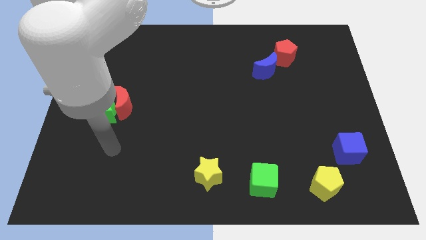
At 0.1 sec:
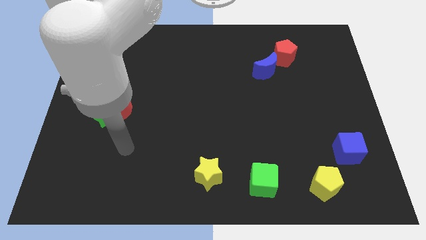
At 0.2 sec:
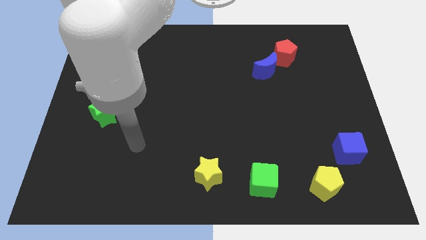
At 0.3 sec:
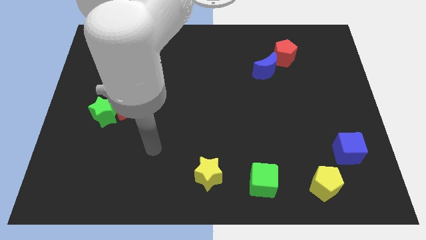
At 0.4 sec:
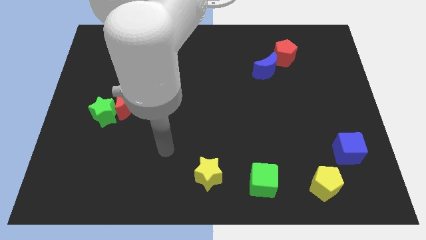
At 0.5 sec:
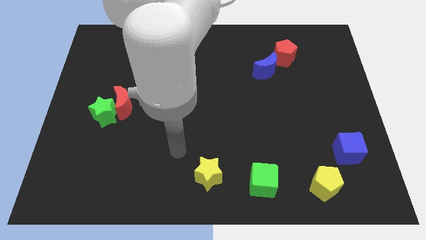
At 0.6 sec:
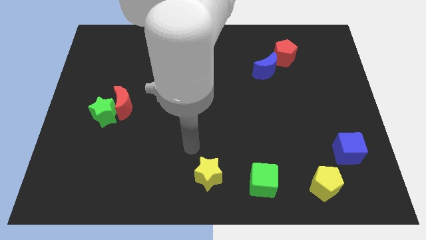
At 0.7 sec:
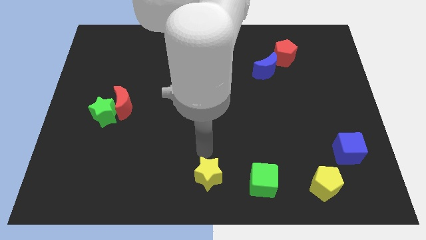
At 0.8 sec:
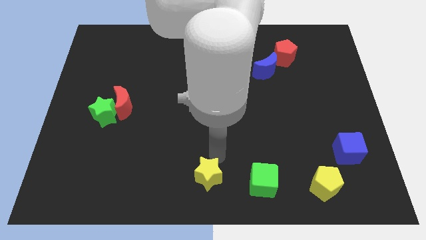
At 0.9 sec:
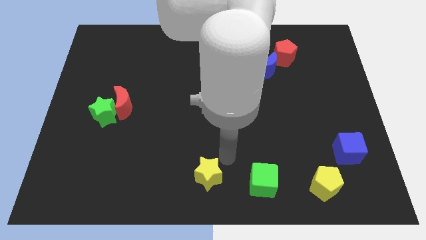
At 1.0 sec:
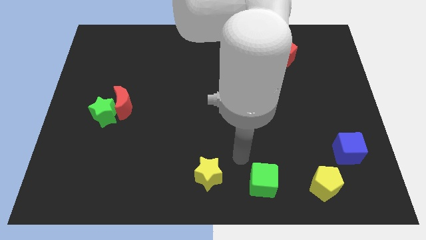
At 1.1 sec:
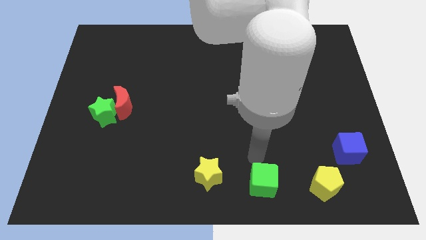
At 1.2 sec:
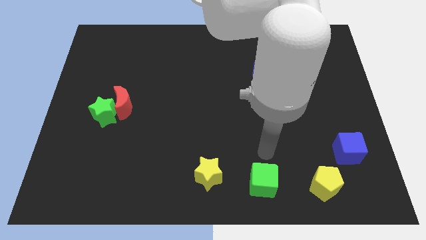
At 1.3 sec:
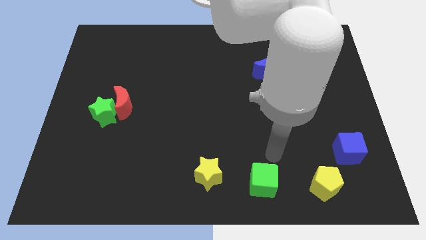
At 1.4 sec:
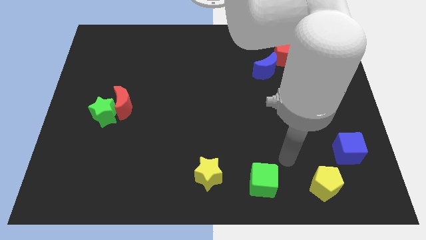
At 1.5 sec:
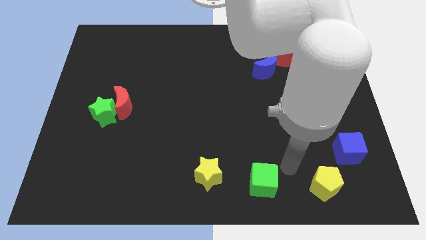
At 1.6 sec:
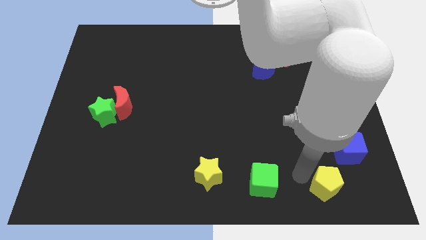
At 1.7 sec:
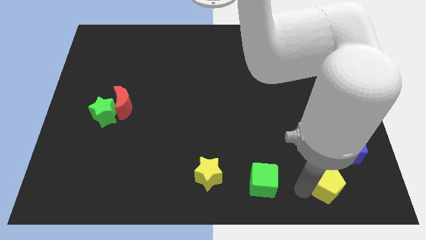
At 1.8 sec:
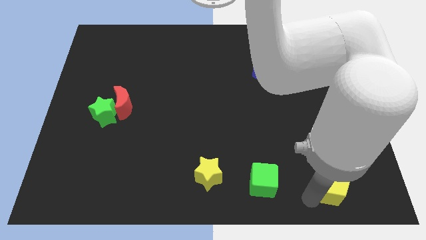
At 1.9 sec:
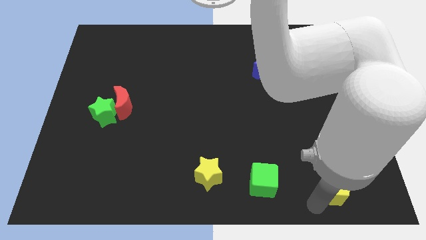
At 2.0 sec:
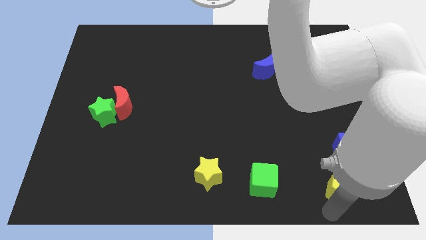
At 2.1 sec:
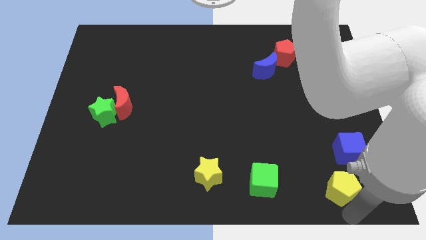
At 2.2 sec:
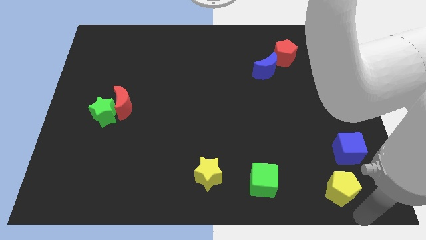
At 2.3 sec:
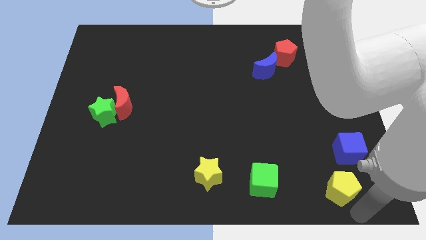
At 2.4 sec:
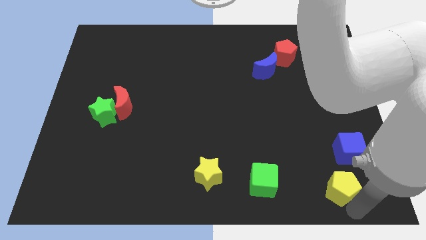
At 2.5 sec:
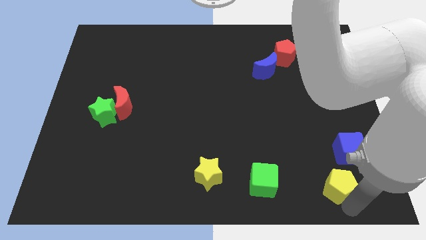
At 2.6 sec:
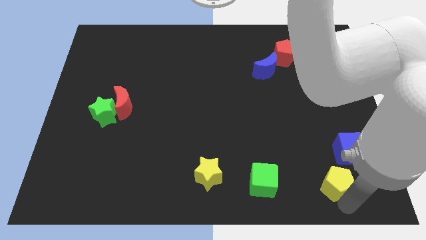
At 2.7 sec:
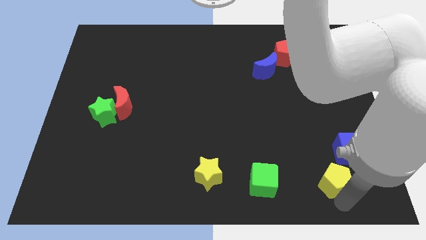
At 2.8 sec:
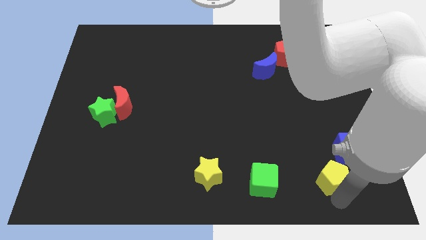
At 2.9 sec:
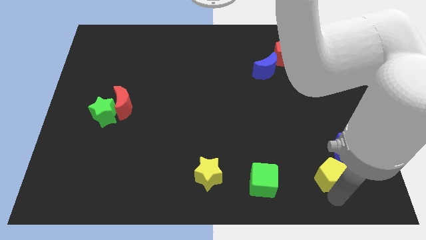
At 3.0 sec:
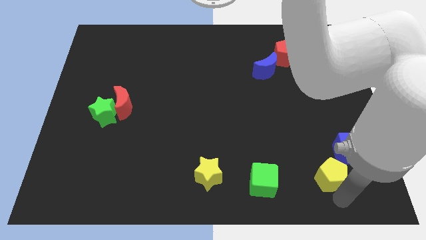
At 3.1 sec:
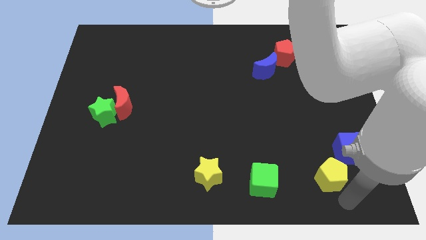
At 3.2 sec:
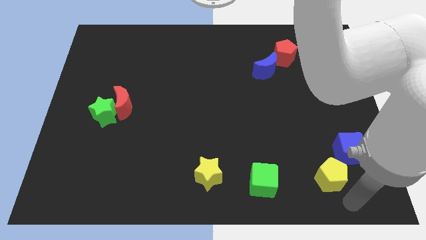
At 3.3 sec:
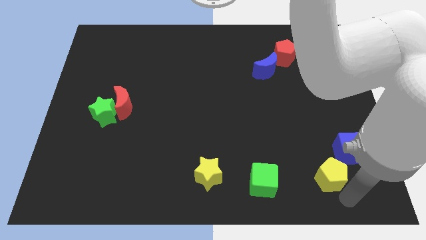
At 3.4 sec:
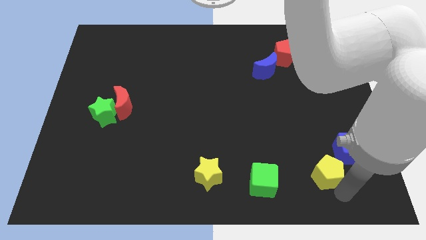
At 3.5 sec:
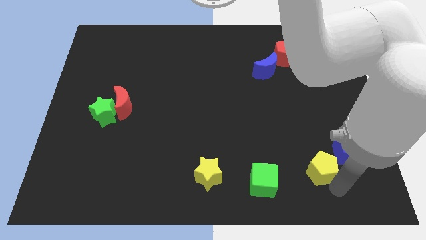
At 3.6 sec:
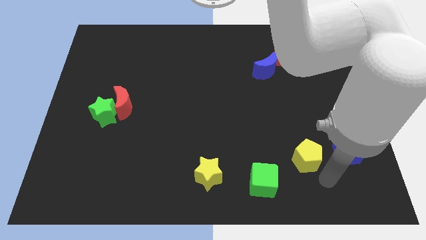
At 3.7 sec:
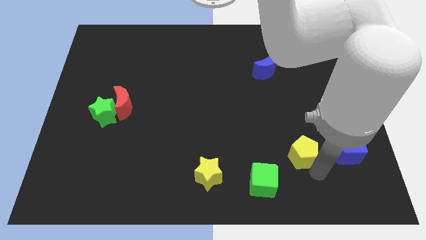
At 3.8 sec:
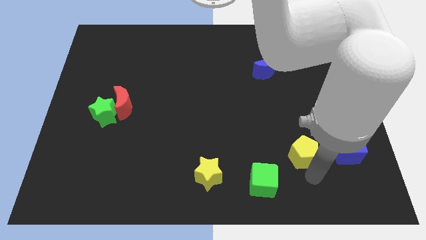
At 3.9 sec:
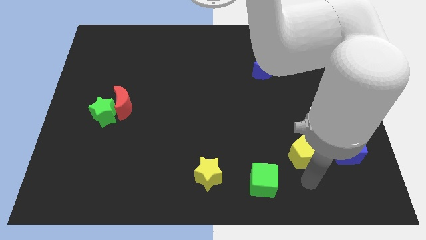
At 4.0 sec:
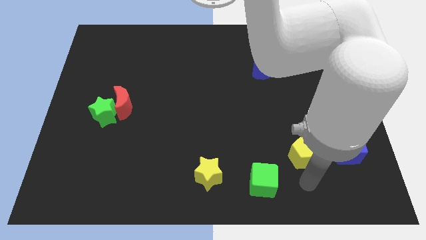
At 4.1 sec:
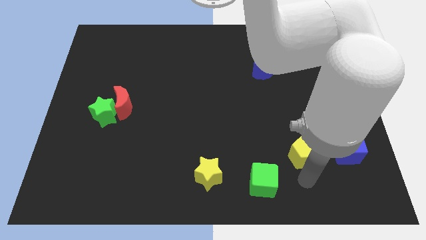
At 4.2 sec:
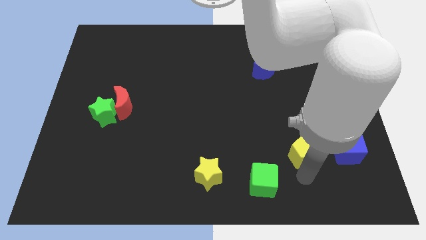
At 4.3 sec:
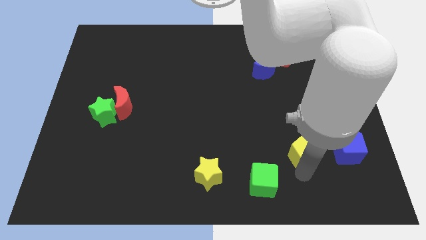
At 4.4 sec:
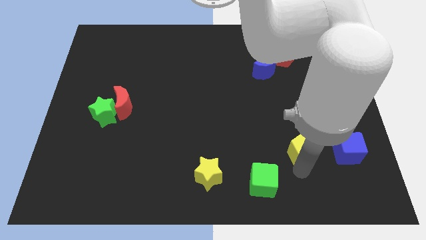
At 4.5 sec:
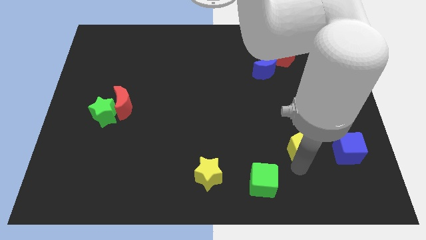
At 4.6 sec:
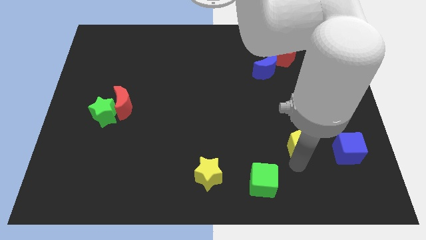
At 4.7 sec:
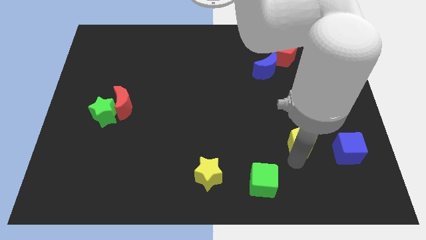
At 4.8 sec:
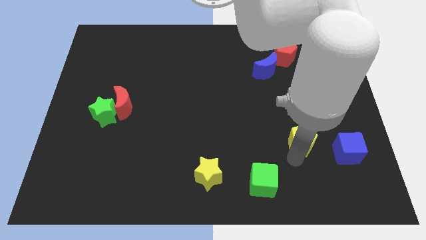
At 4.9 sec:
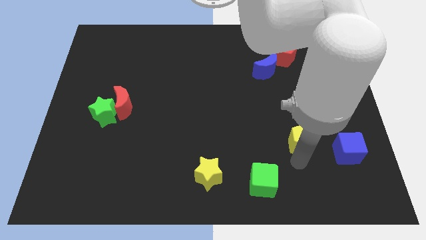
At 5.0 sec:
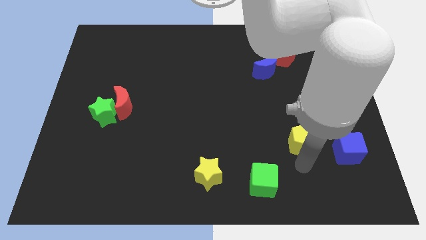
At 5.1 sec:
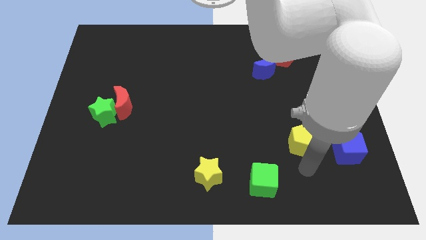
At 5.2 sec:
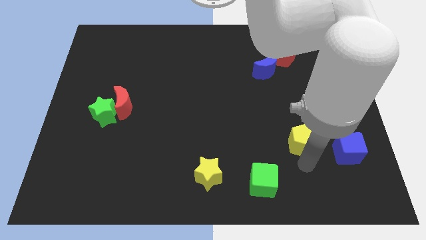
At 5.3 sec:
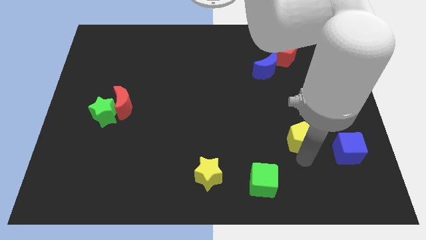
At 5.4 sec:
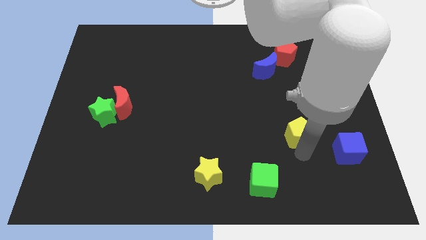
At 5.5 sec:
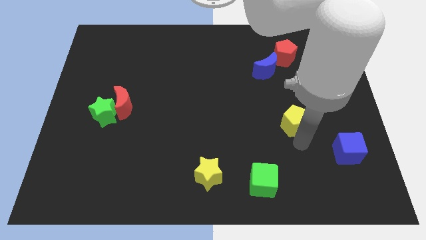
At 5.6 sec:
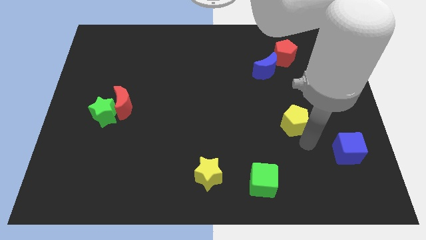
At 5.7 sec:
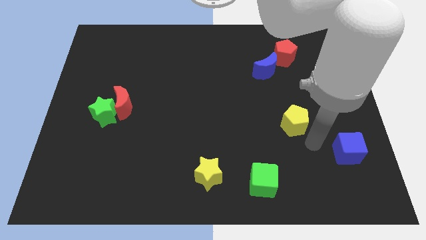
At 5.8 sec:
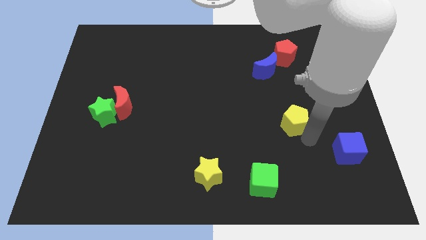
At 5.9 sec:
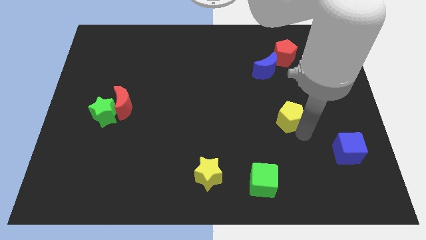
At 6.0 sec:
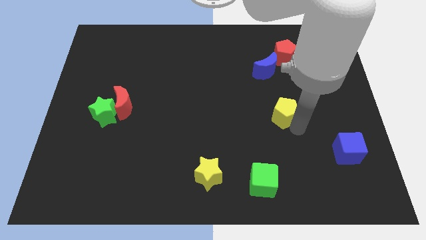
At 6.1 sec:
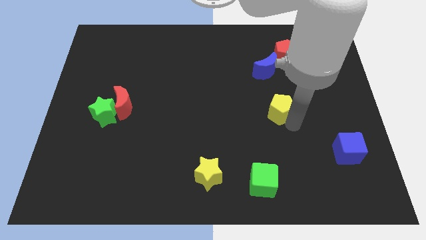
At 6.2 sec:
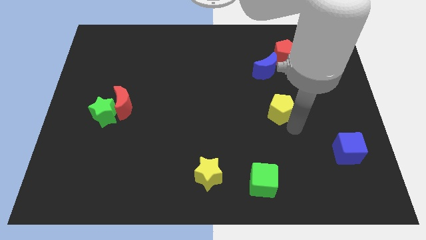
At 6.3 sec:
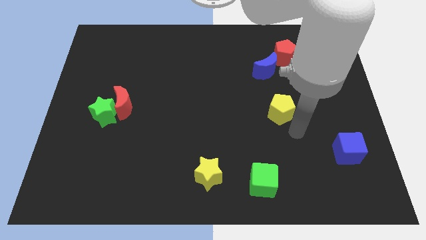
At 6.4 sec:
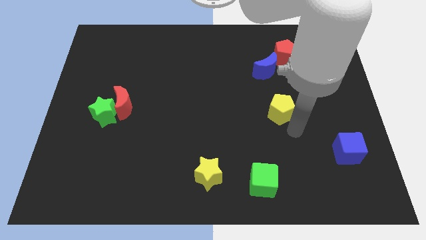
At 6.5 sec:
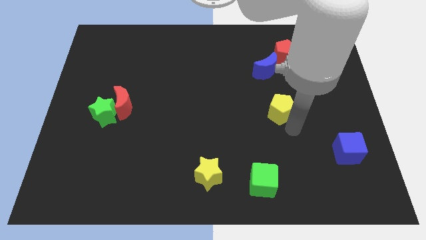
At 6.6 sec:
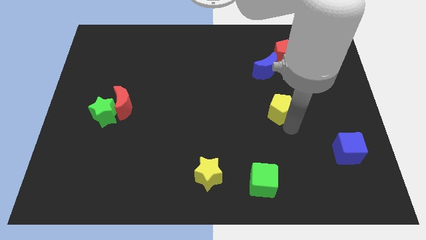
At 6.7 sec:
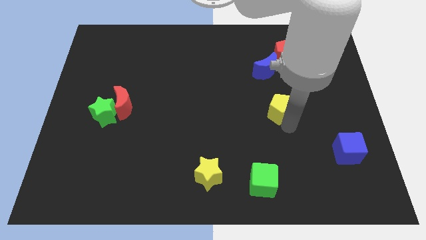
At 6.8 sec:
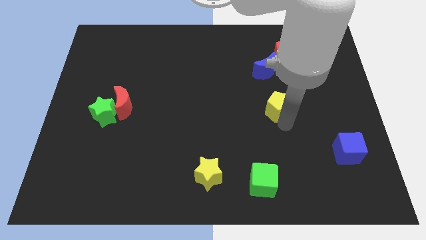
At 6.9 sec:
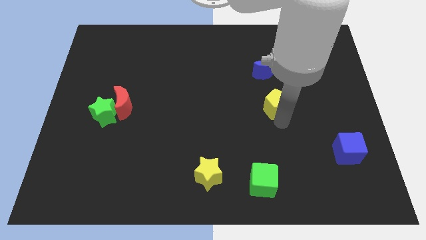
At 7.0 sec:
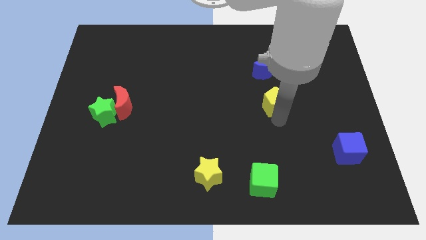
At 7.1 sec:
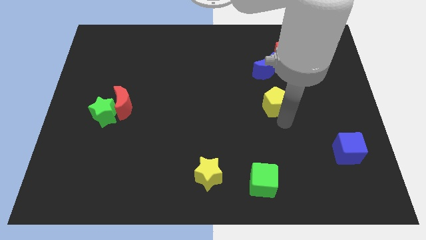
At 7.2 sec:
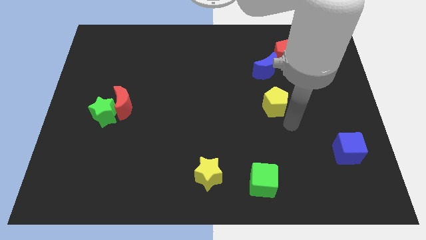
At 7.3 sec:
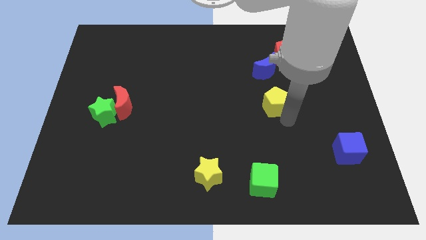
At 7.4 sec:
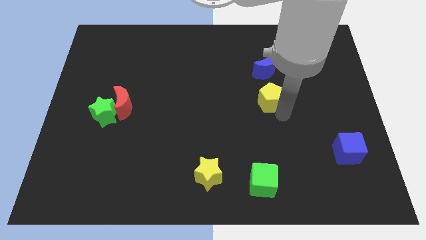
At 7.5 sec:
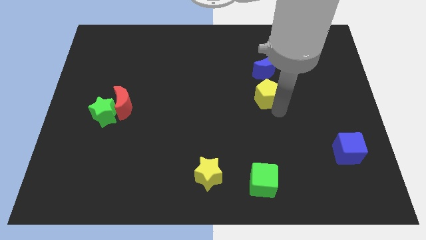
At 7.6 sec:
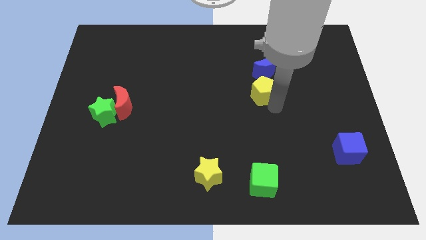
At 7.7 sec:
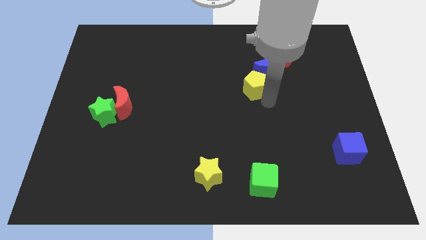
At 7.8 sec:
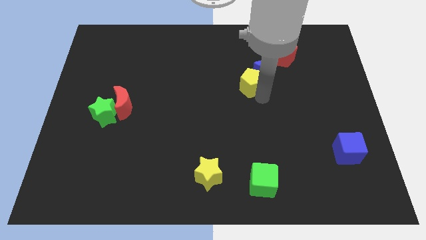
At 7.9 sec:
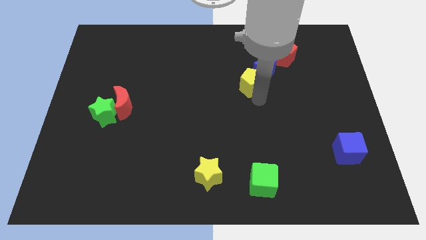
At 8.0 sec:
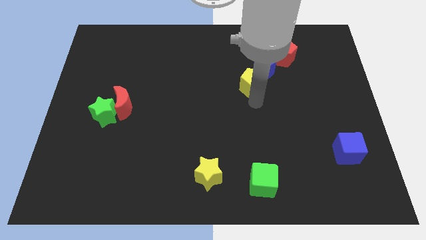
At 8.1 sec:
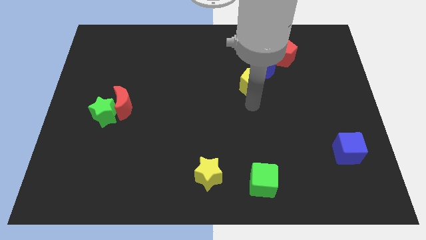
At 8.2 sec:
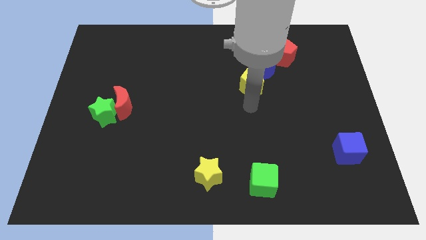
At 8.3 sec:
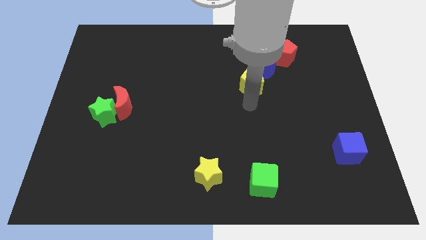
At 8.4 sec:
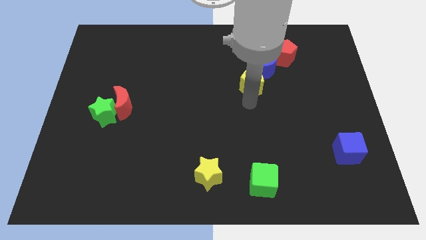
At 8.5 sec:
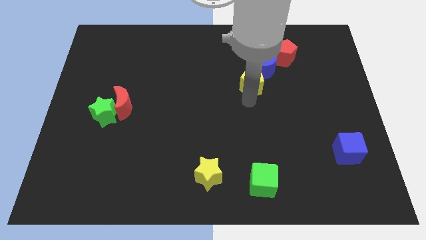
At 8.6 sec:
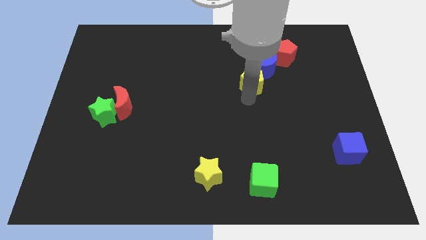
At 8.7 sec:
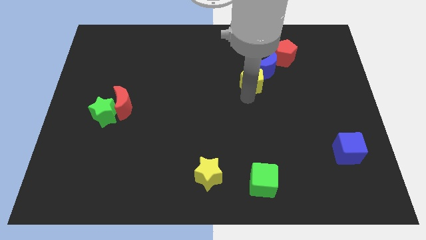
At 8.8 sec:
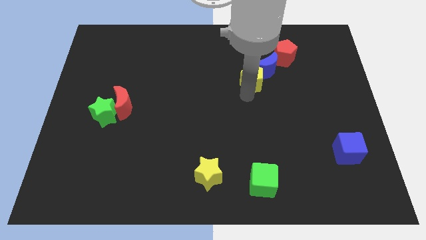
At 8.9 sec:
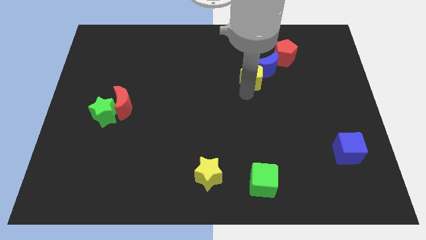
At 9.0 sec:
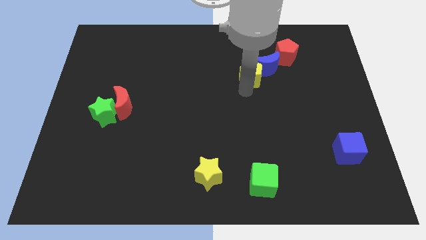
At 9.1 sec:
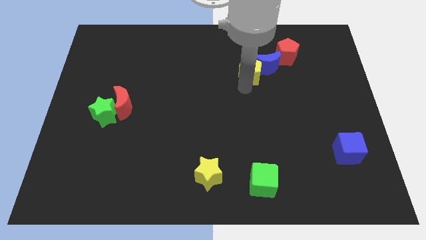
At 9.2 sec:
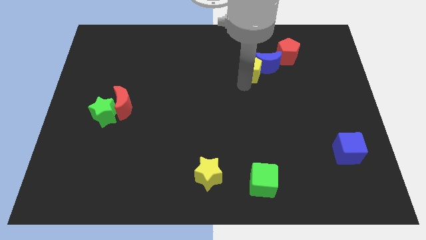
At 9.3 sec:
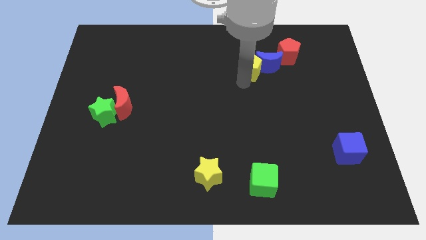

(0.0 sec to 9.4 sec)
push the yellow pentagon to the top left side of the blue moon
